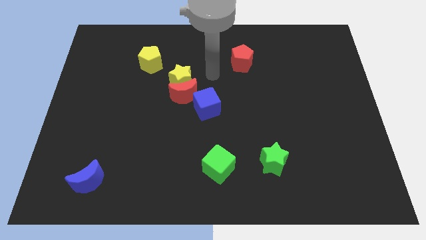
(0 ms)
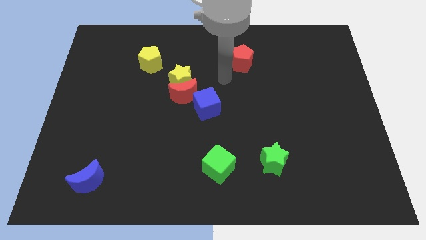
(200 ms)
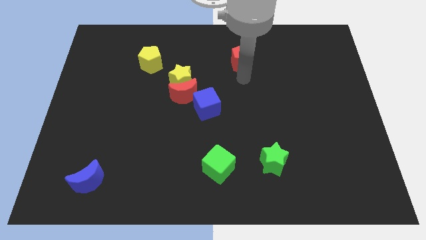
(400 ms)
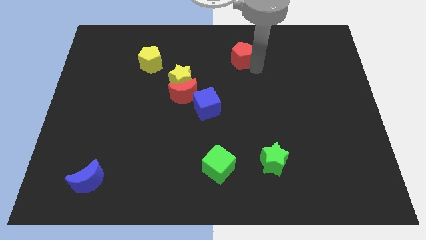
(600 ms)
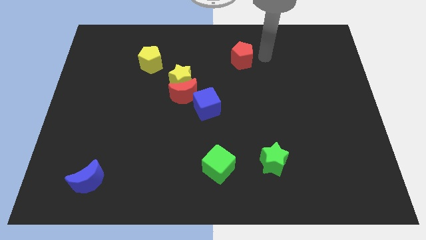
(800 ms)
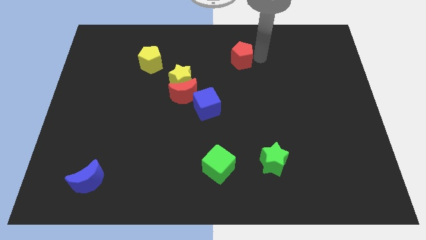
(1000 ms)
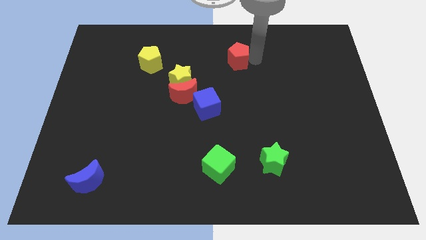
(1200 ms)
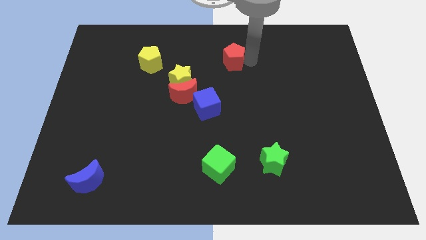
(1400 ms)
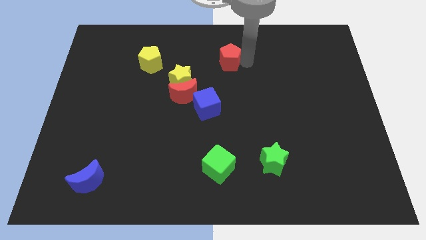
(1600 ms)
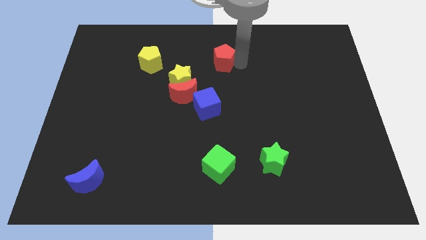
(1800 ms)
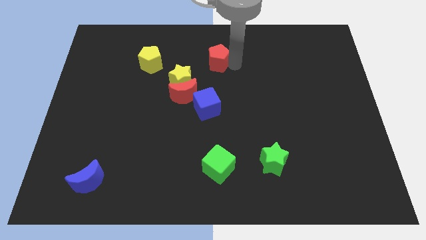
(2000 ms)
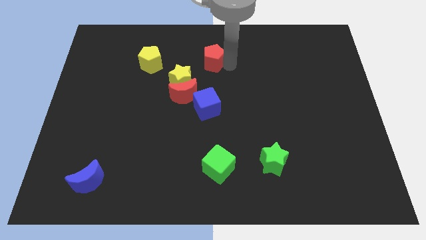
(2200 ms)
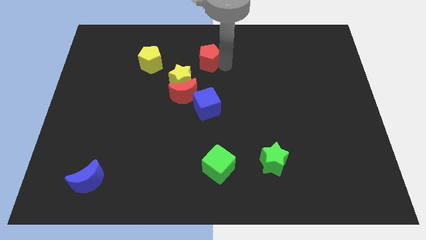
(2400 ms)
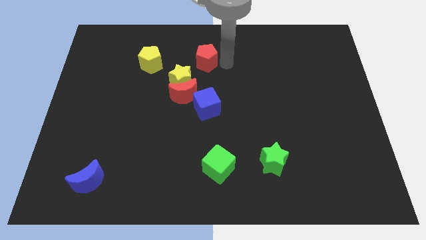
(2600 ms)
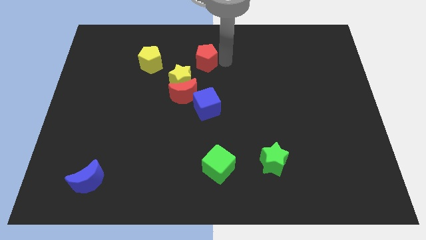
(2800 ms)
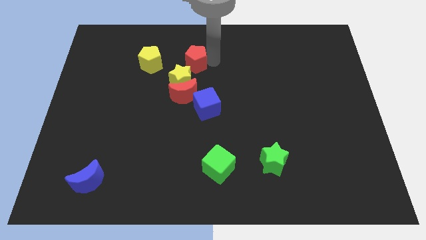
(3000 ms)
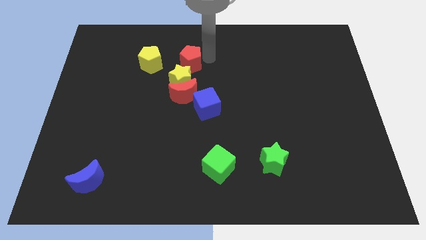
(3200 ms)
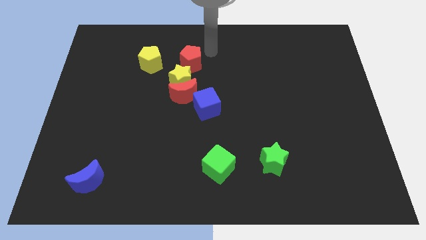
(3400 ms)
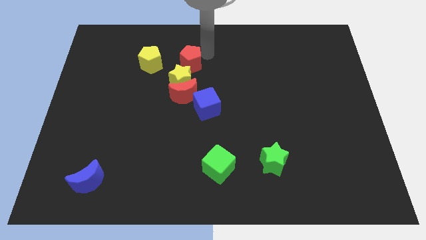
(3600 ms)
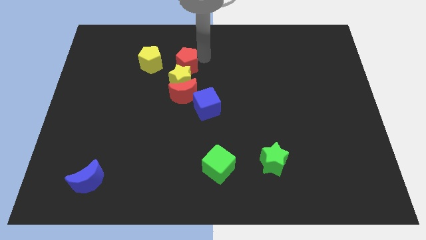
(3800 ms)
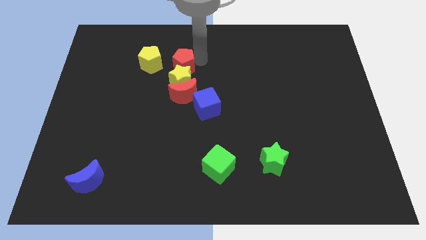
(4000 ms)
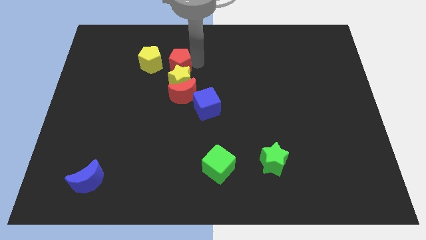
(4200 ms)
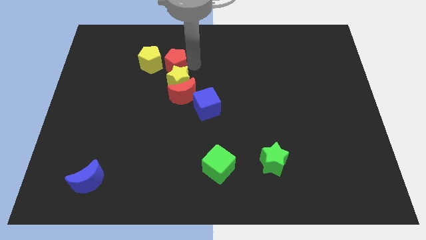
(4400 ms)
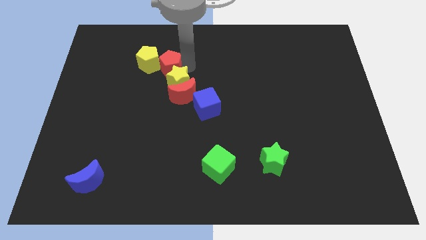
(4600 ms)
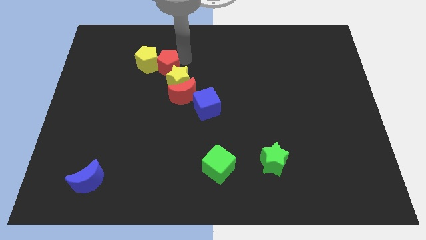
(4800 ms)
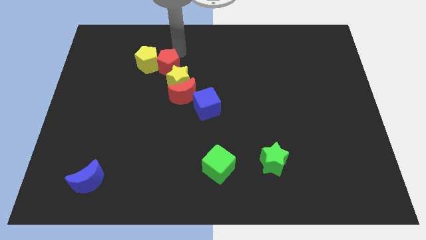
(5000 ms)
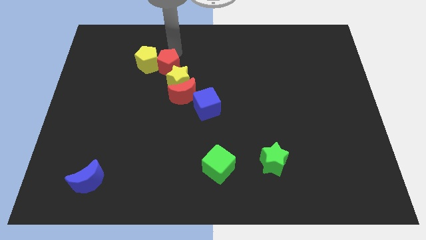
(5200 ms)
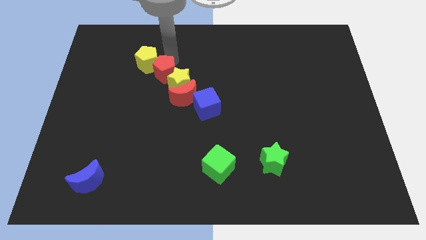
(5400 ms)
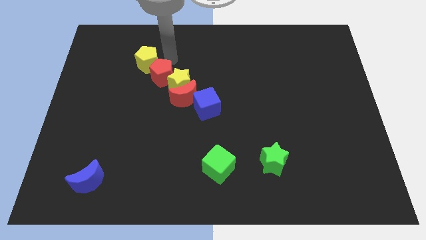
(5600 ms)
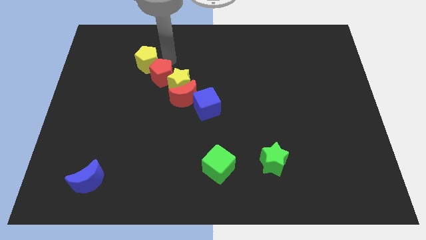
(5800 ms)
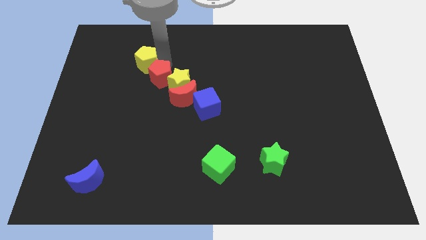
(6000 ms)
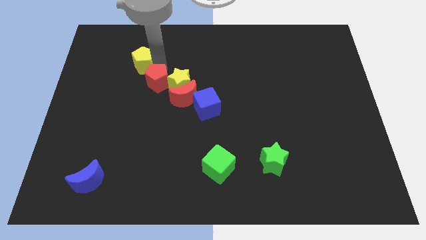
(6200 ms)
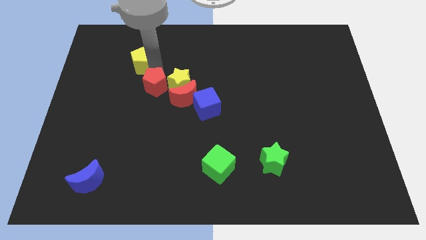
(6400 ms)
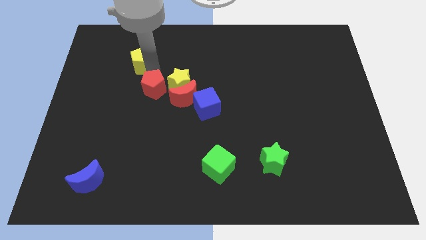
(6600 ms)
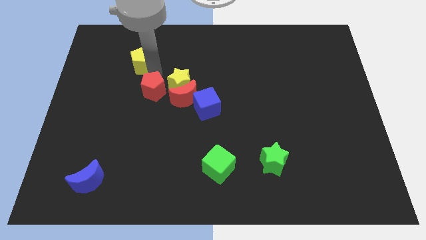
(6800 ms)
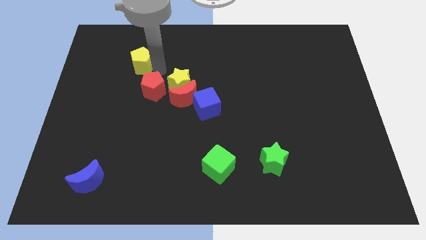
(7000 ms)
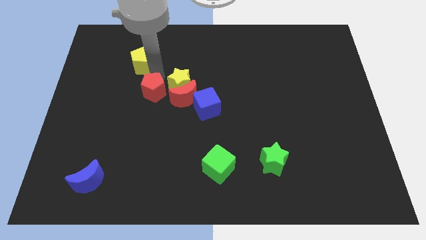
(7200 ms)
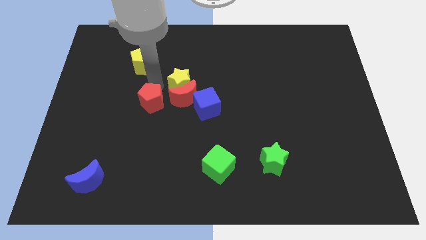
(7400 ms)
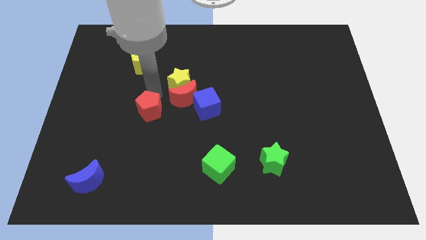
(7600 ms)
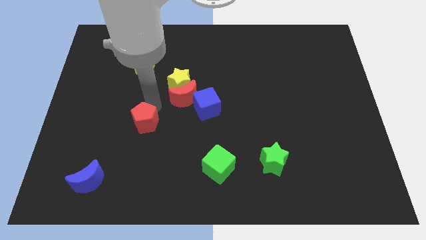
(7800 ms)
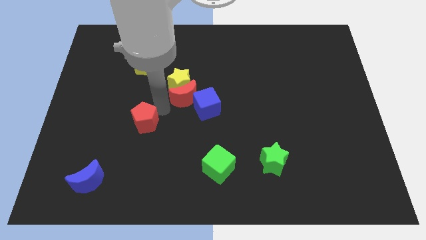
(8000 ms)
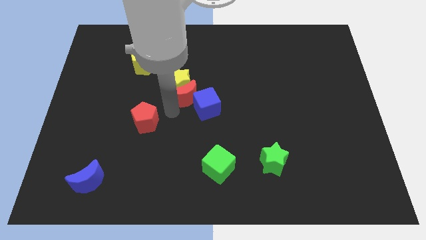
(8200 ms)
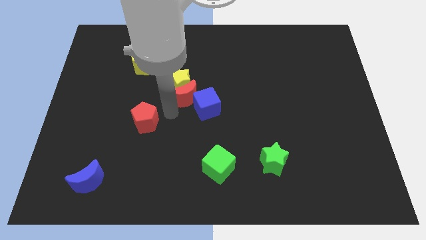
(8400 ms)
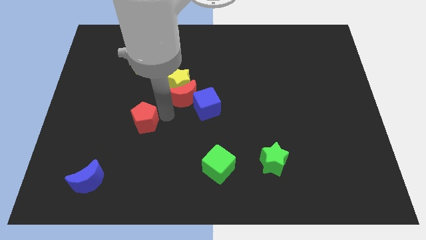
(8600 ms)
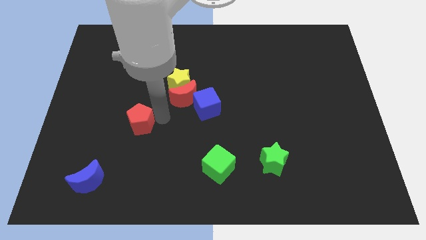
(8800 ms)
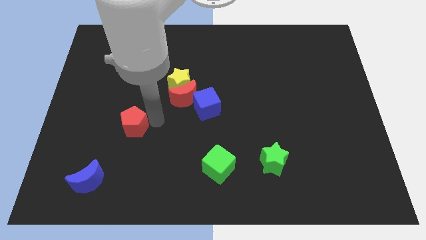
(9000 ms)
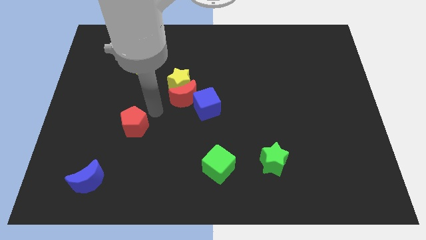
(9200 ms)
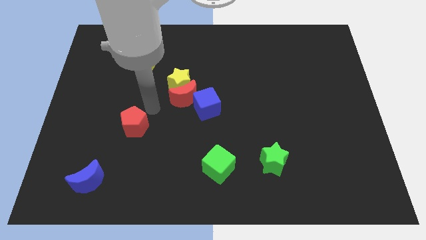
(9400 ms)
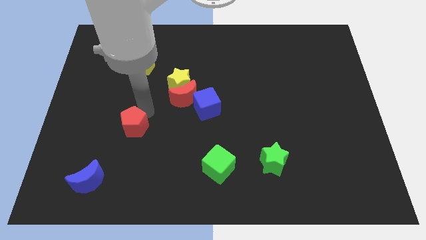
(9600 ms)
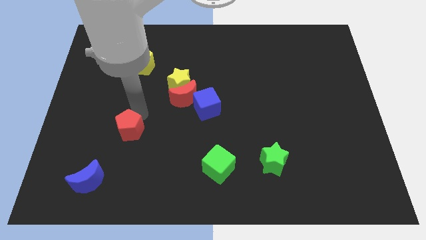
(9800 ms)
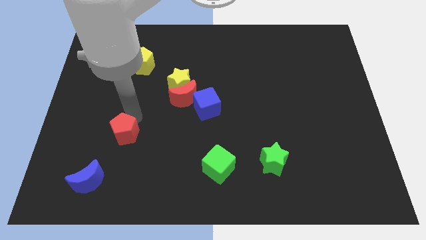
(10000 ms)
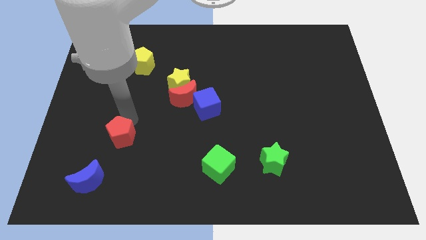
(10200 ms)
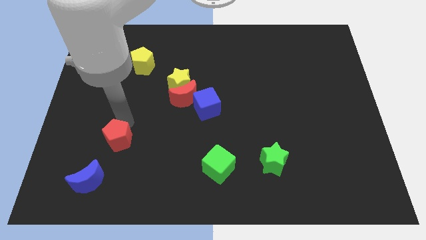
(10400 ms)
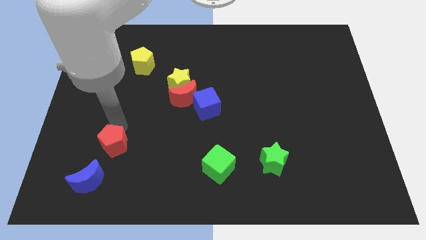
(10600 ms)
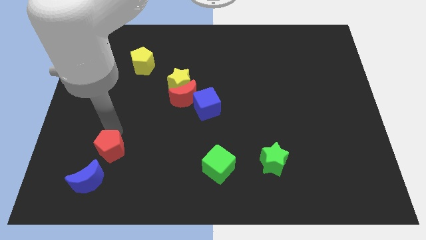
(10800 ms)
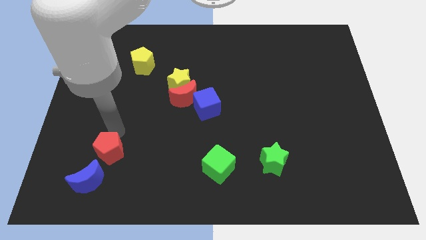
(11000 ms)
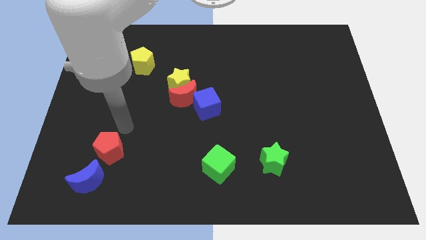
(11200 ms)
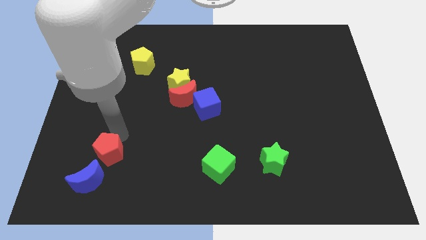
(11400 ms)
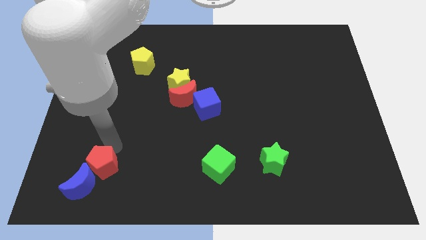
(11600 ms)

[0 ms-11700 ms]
move the red pentagon close to the blue moon

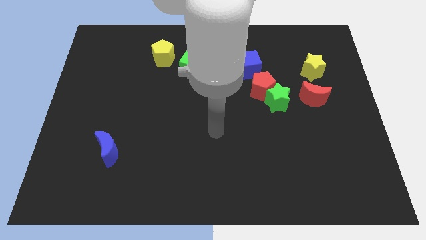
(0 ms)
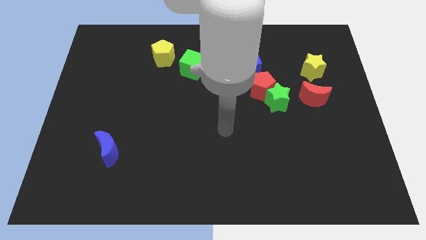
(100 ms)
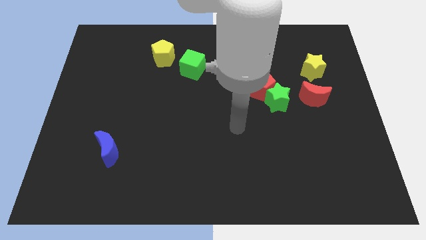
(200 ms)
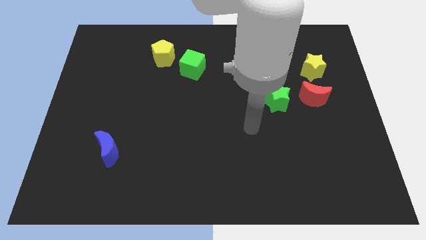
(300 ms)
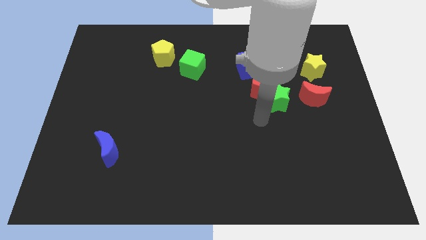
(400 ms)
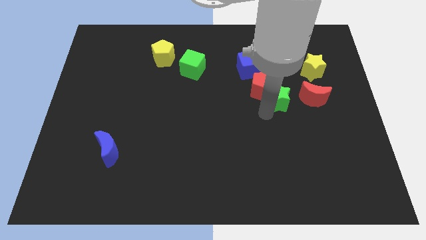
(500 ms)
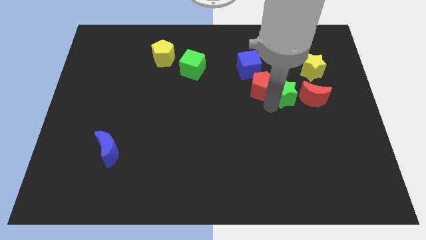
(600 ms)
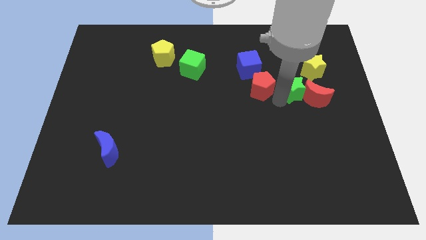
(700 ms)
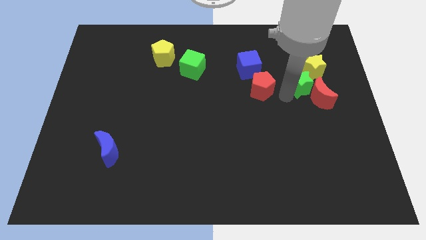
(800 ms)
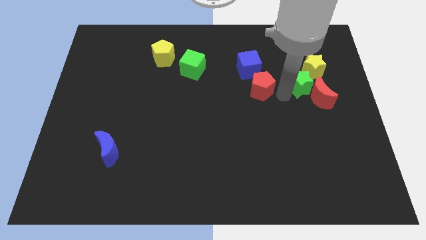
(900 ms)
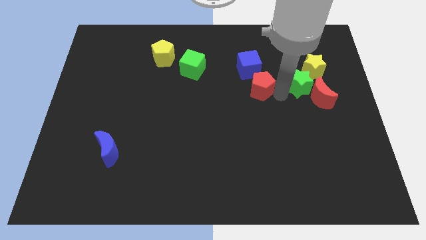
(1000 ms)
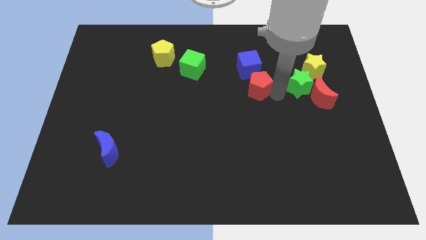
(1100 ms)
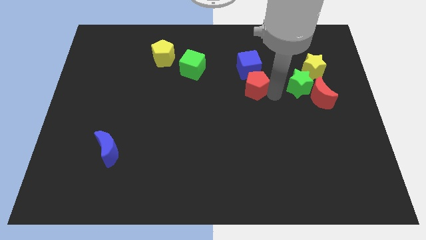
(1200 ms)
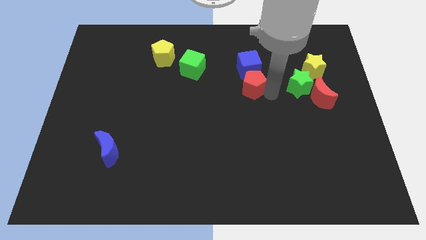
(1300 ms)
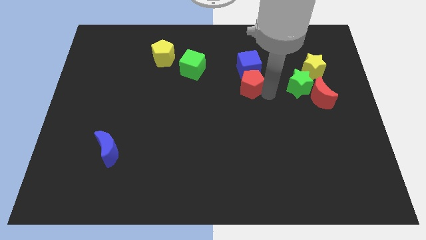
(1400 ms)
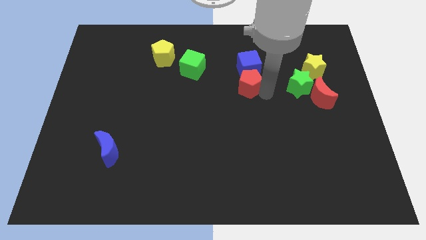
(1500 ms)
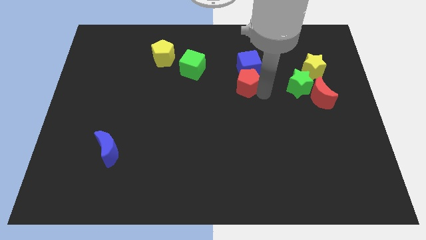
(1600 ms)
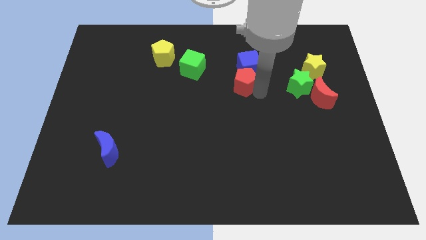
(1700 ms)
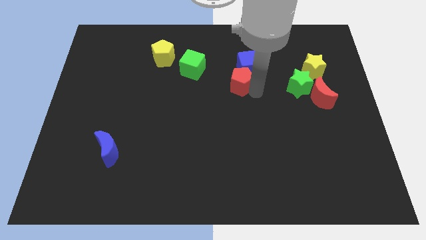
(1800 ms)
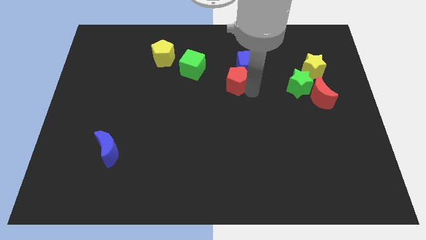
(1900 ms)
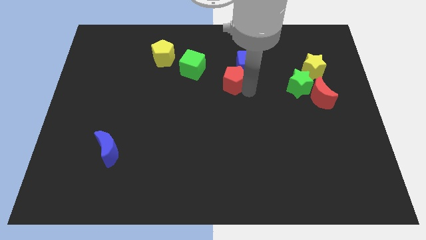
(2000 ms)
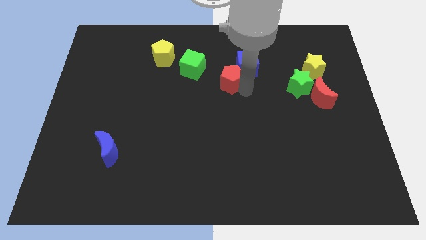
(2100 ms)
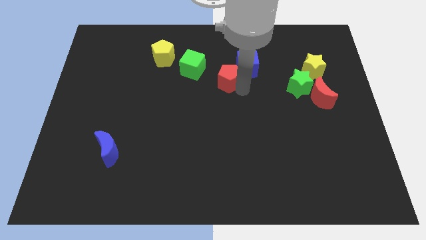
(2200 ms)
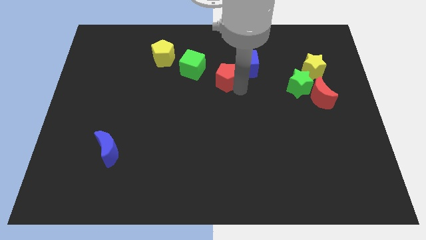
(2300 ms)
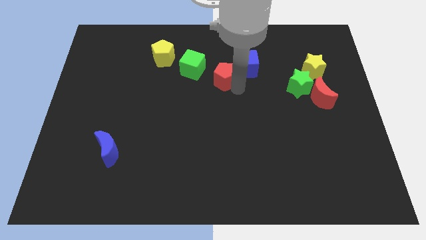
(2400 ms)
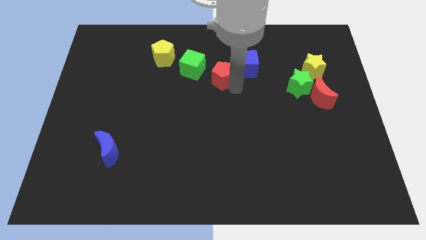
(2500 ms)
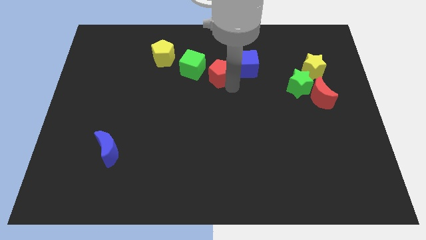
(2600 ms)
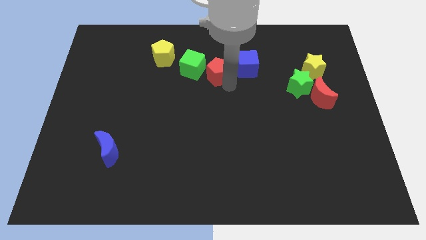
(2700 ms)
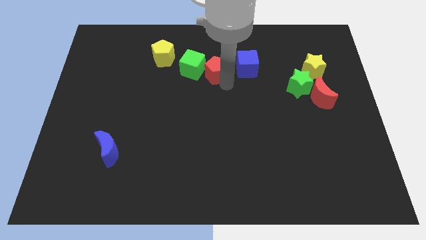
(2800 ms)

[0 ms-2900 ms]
move the red pentagon to the green cube
